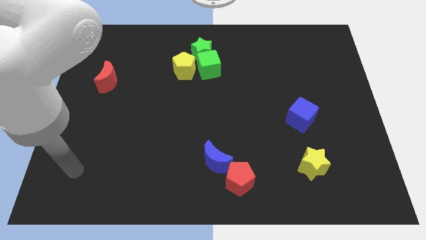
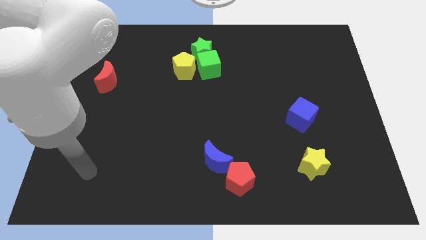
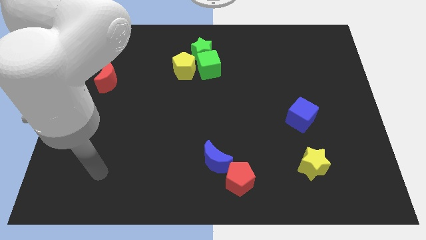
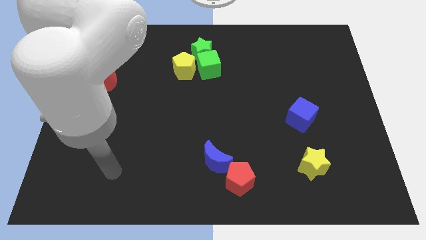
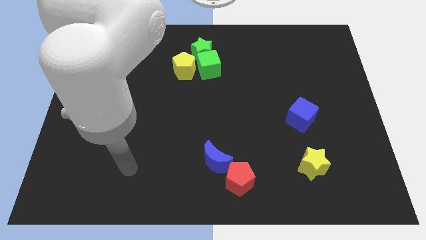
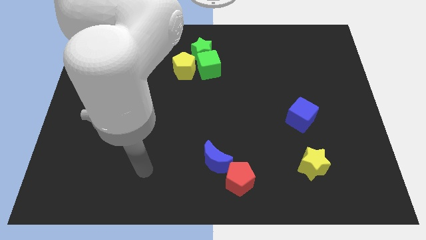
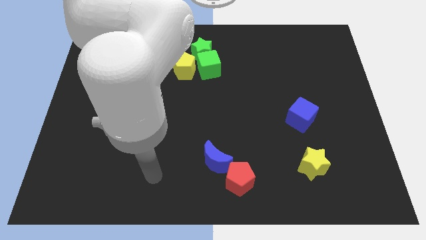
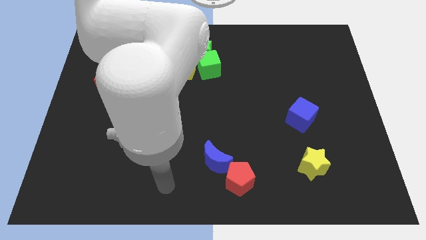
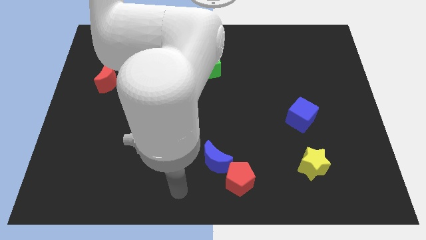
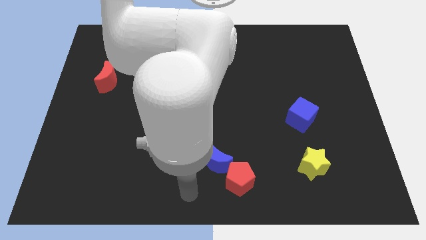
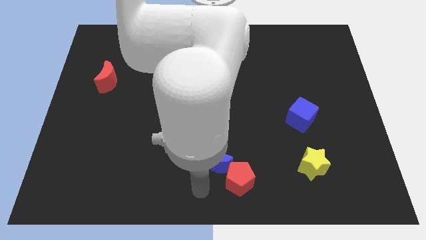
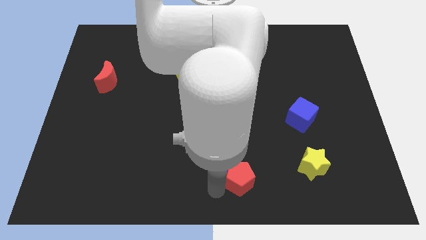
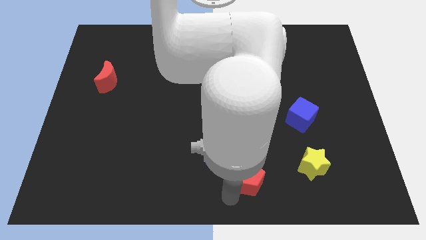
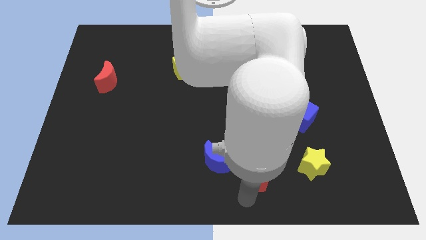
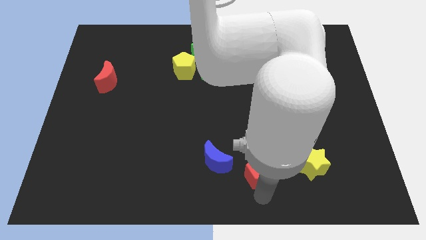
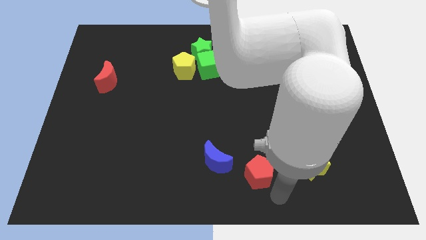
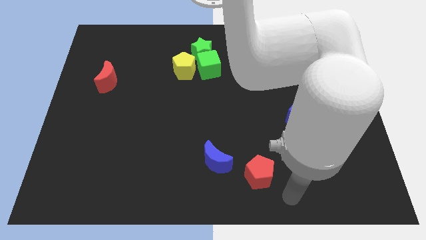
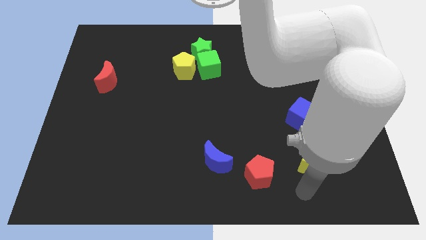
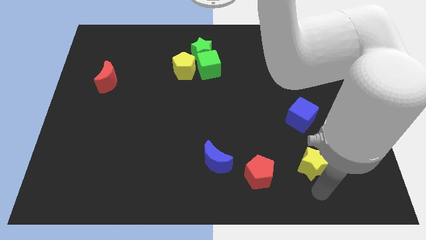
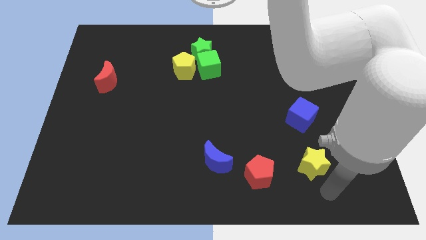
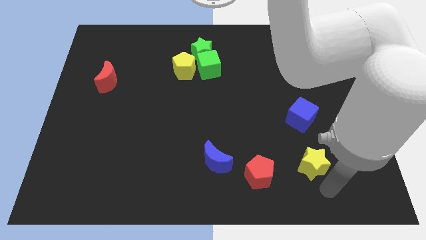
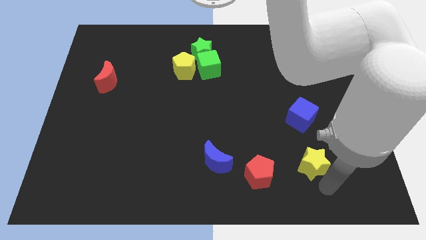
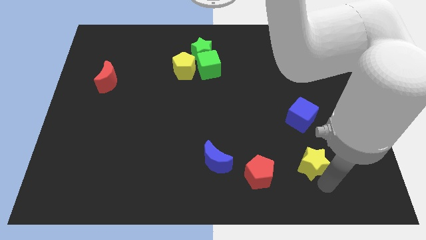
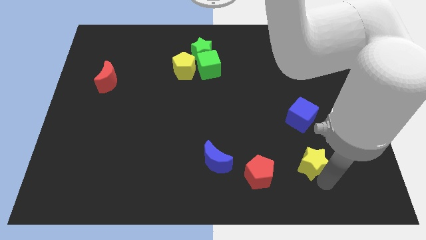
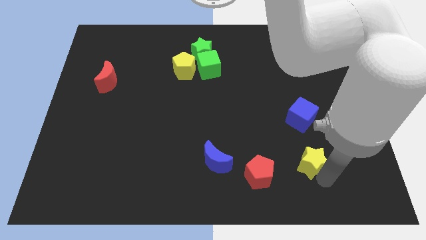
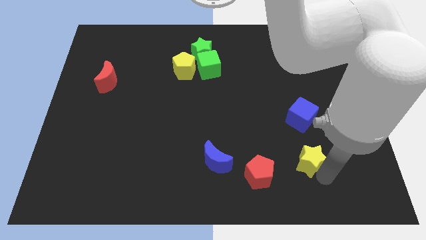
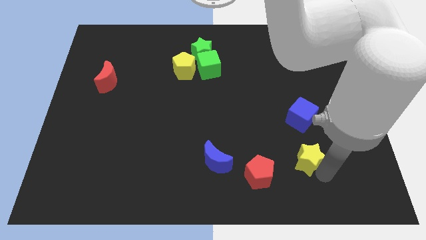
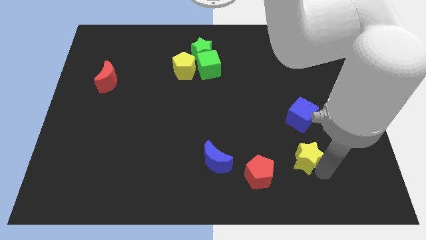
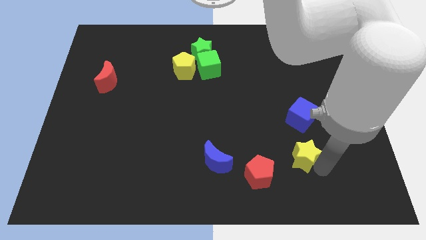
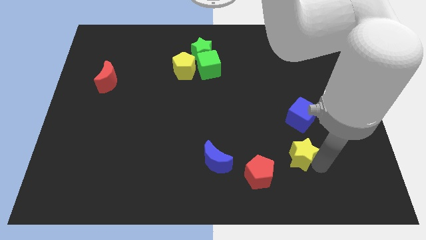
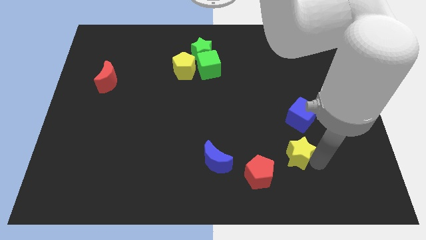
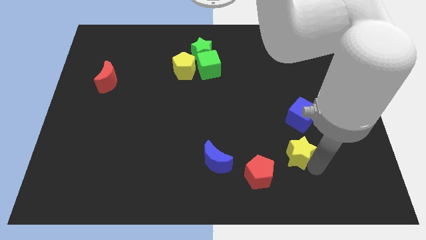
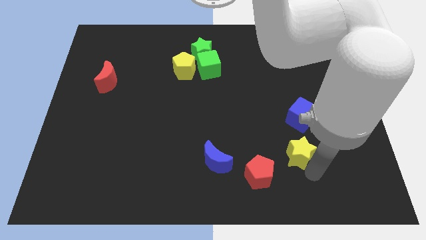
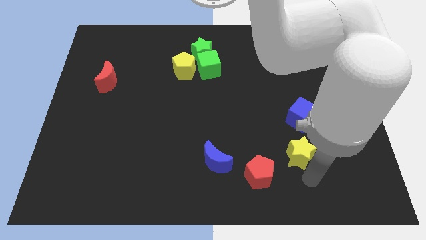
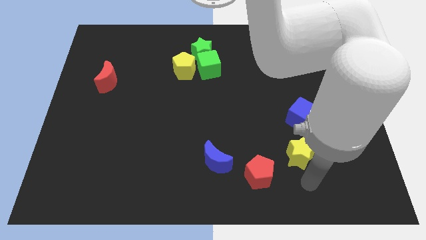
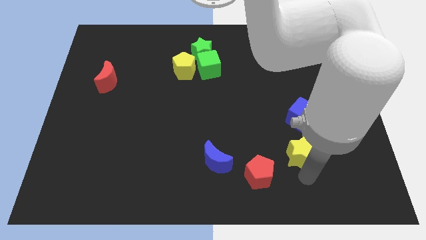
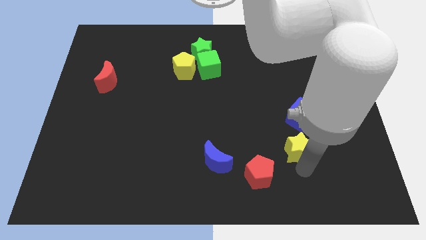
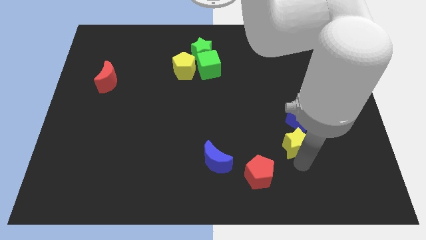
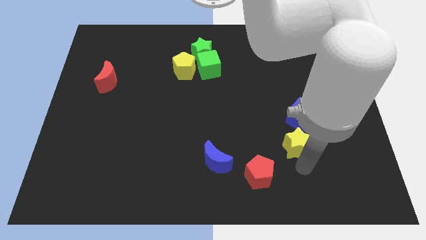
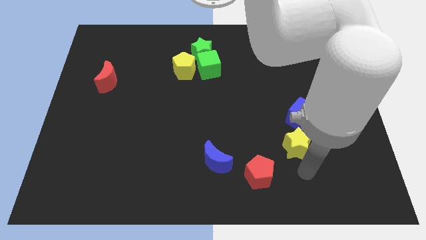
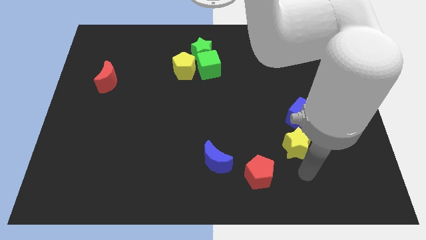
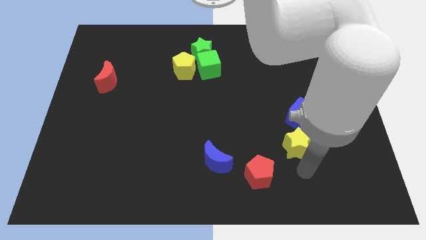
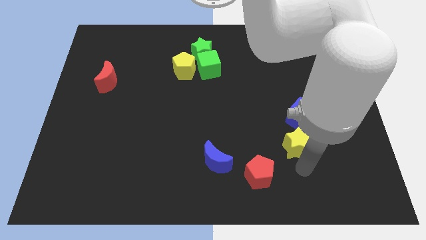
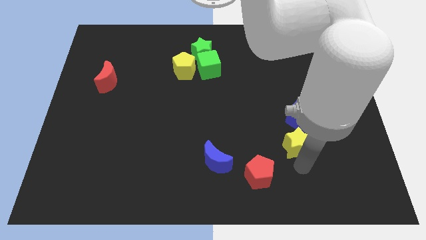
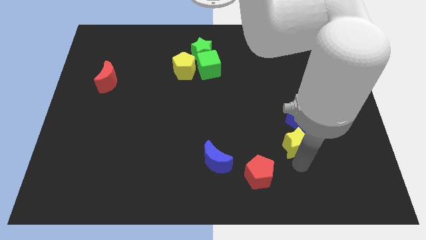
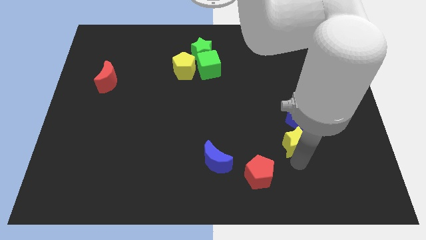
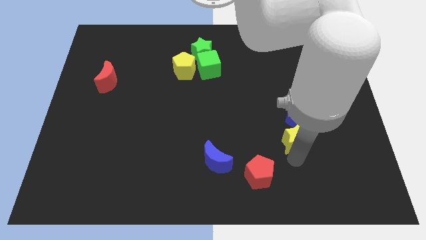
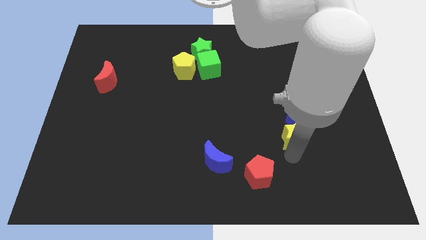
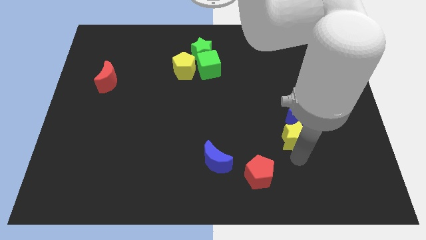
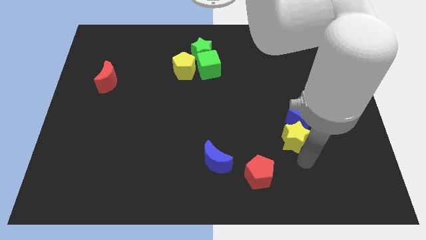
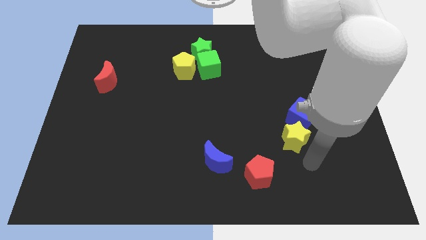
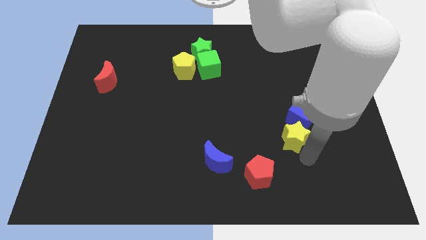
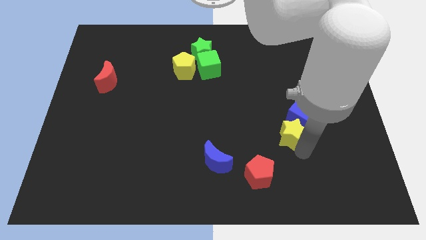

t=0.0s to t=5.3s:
slightly move the yellow star up

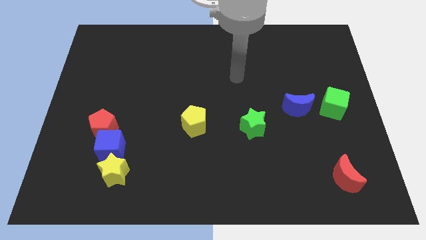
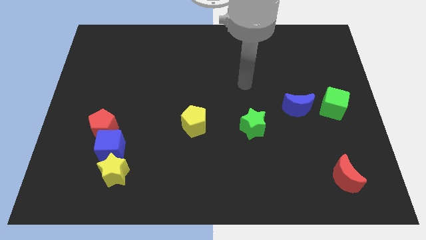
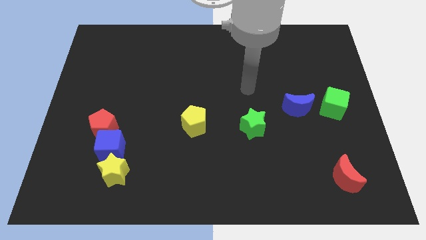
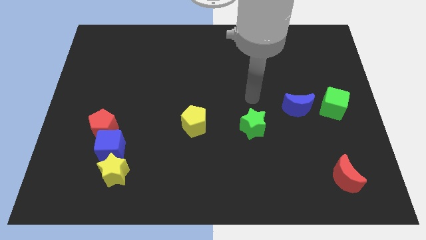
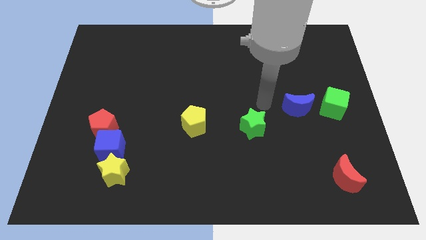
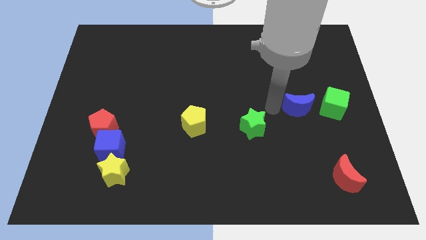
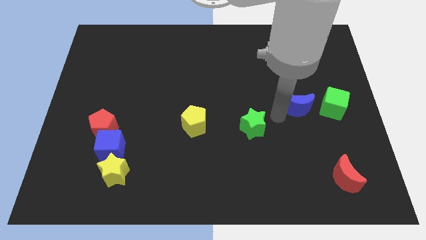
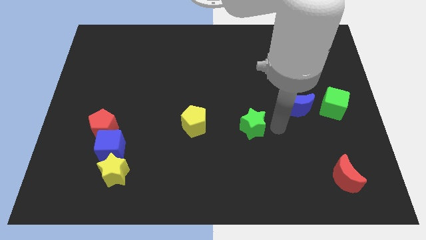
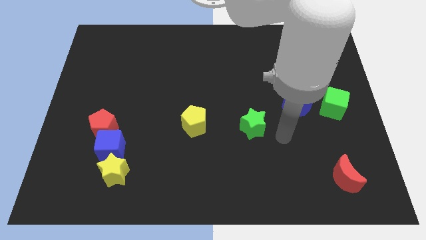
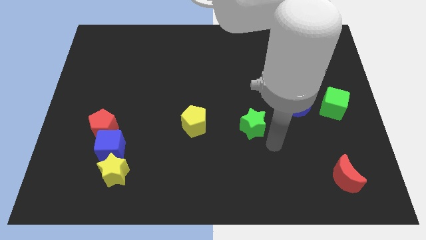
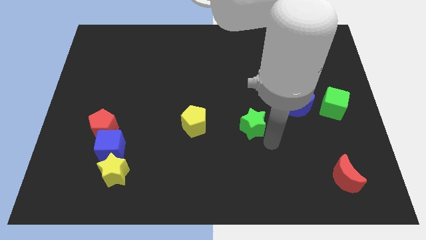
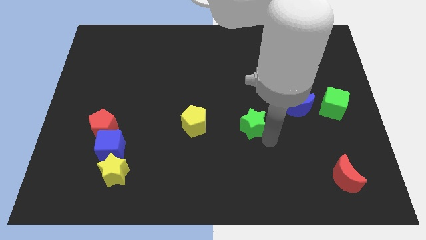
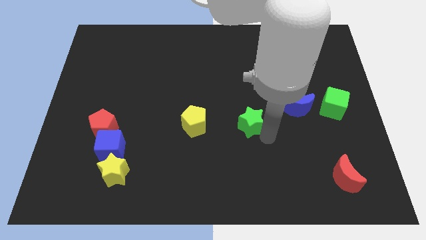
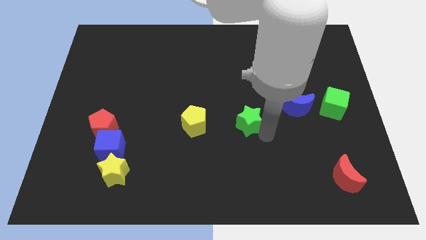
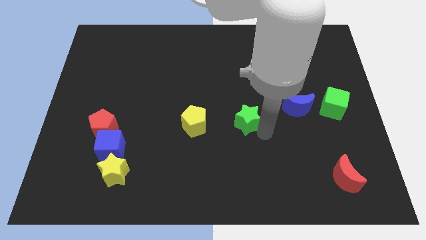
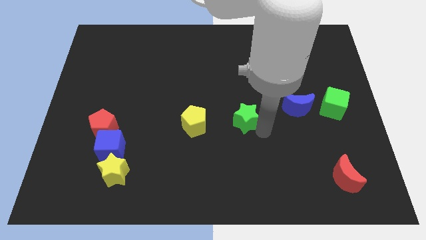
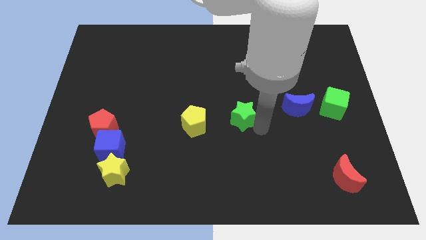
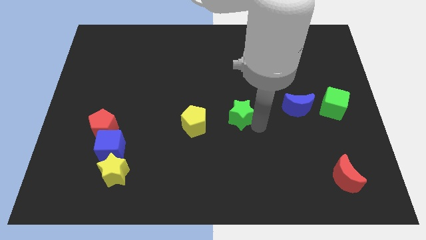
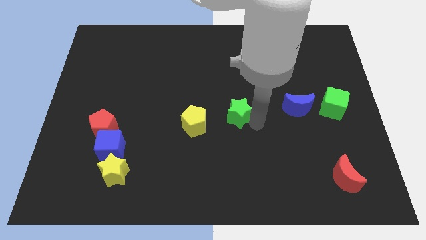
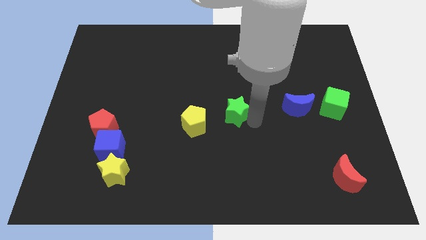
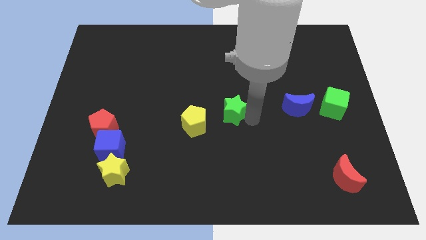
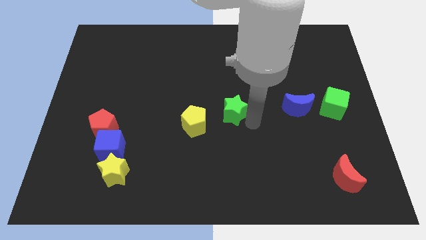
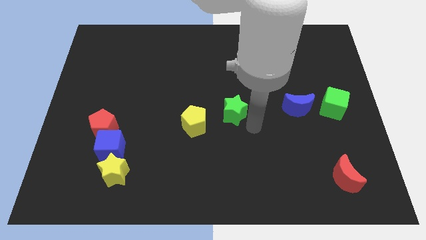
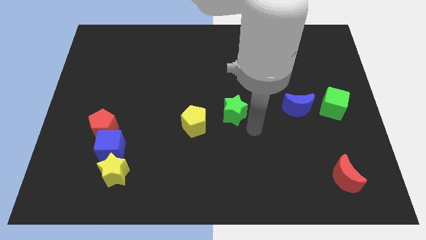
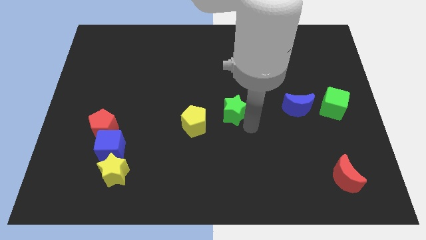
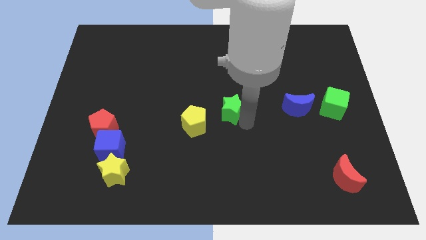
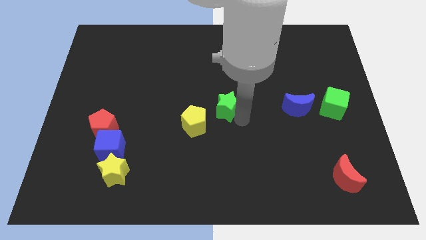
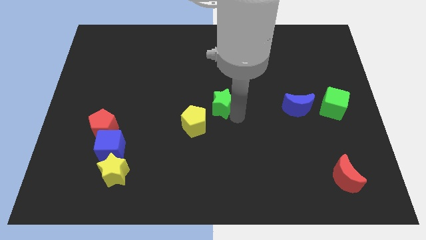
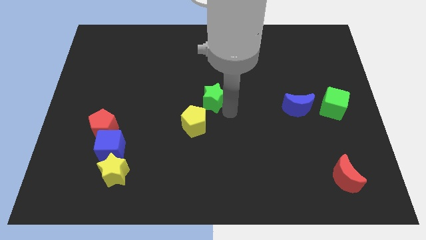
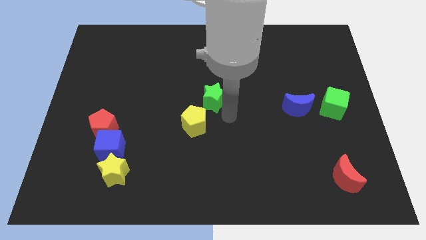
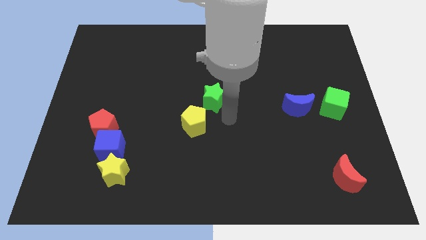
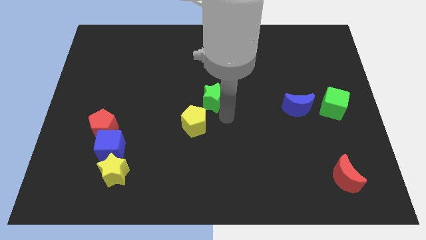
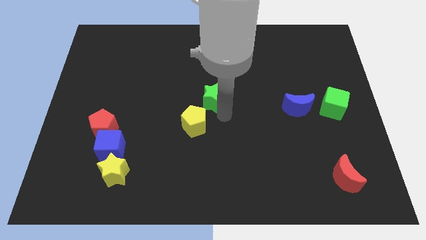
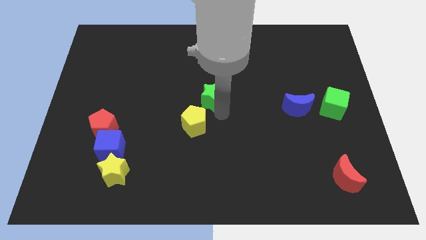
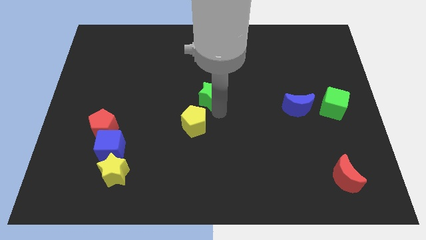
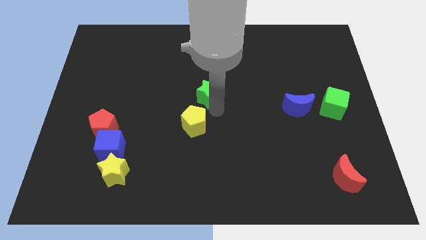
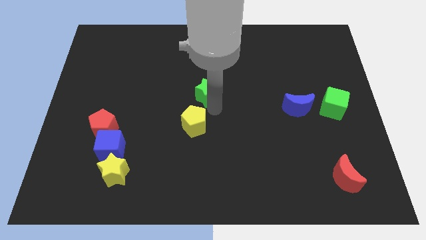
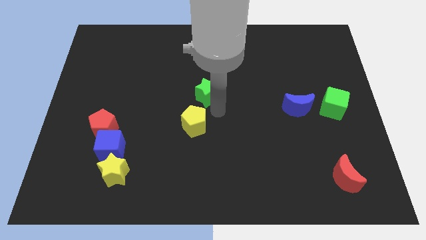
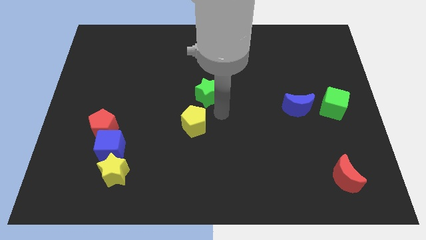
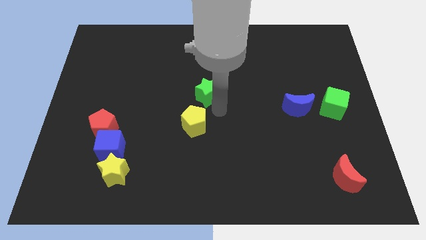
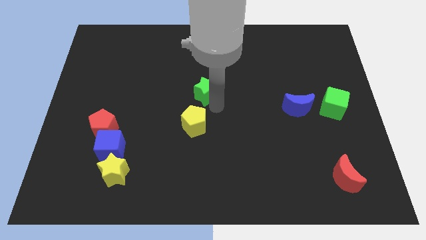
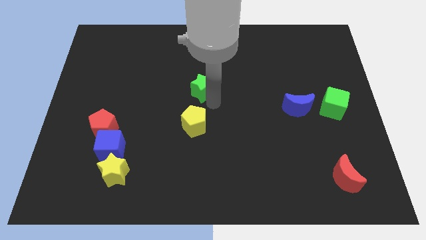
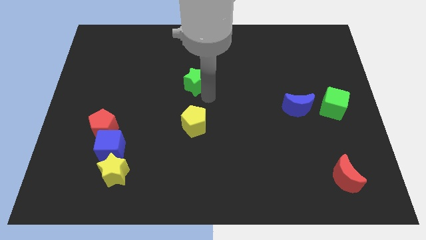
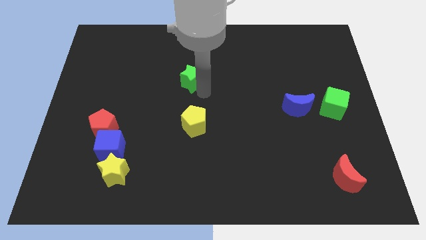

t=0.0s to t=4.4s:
push the green star up and to the left
